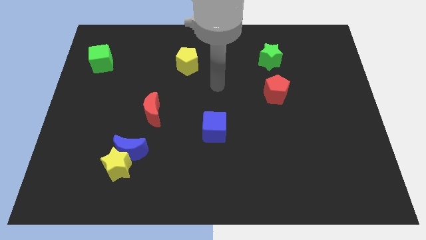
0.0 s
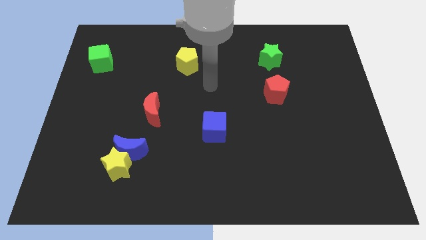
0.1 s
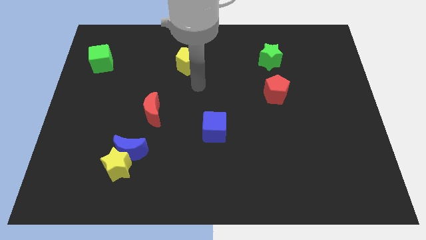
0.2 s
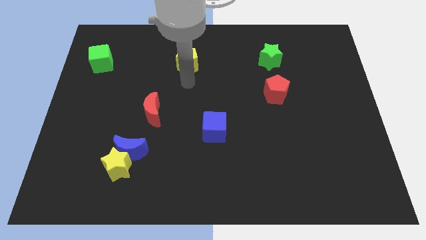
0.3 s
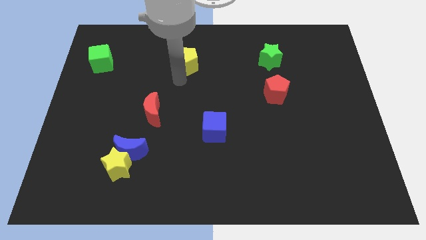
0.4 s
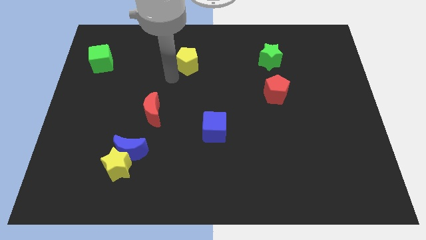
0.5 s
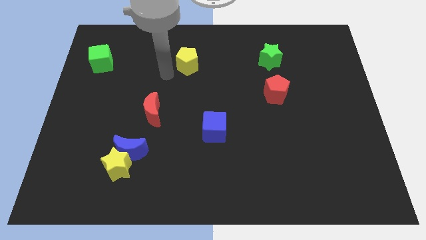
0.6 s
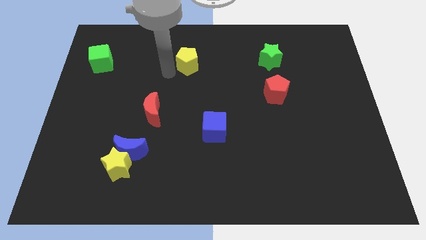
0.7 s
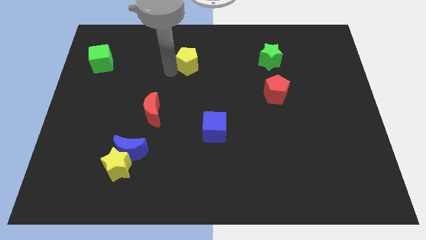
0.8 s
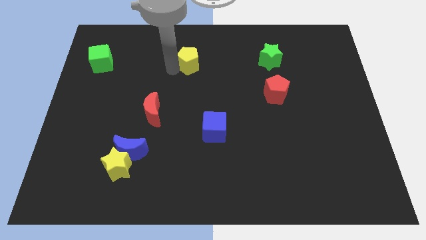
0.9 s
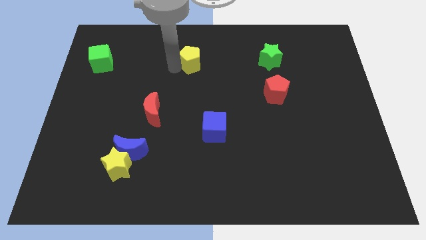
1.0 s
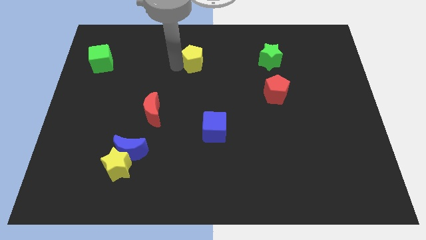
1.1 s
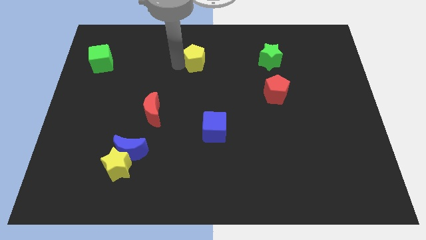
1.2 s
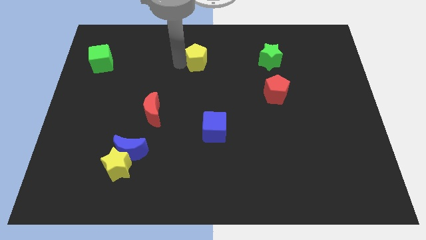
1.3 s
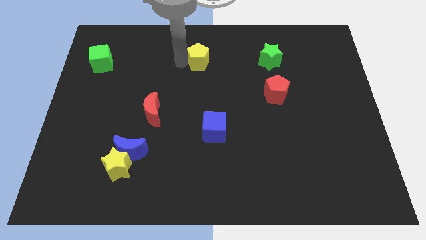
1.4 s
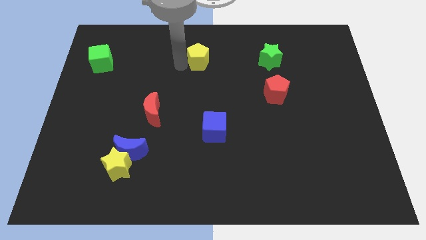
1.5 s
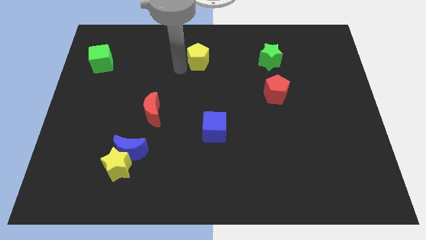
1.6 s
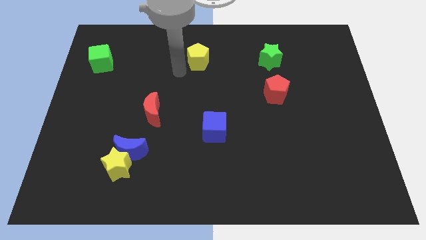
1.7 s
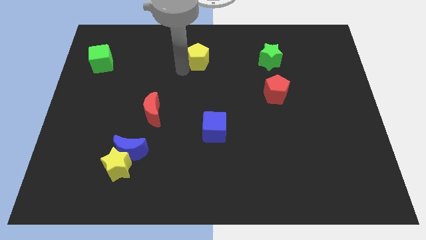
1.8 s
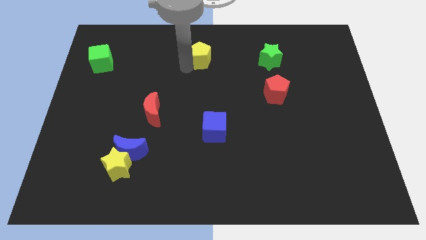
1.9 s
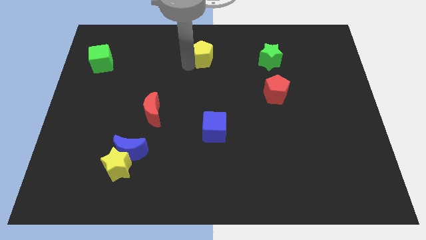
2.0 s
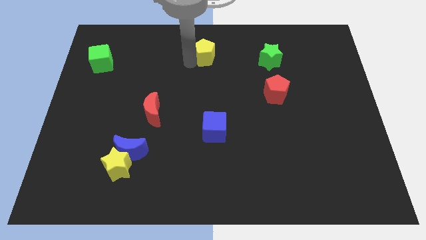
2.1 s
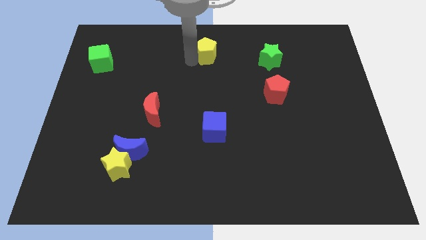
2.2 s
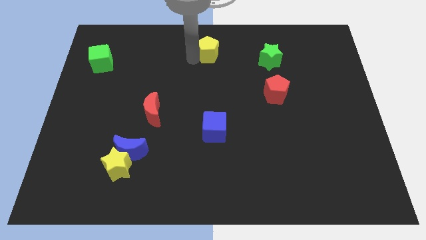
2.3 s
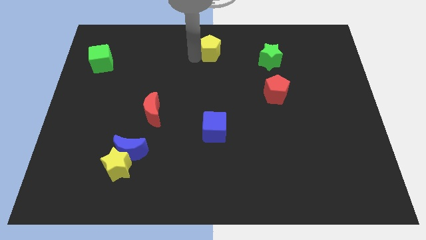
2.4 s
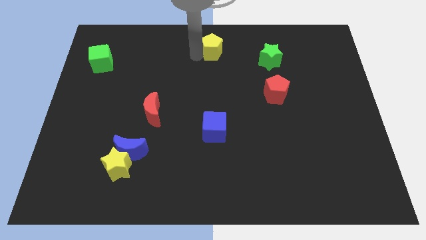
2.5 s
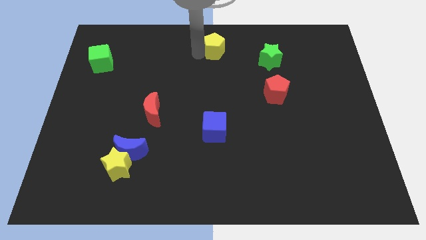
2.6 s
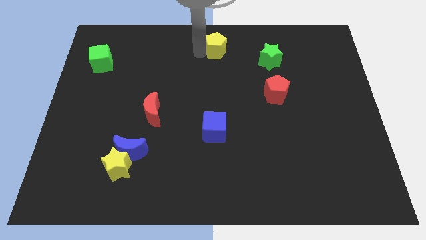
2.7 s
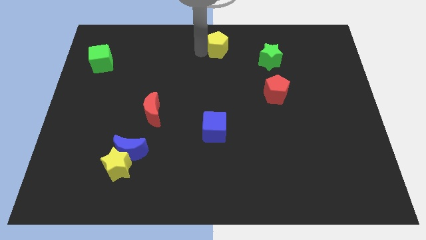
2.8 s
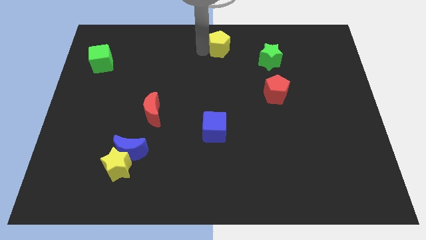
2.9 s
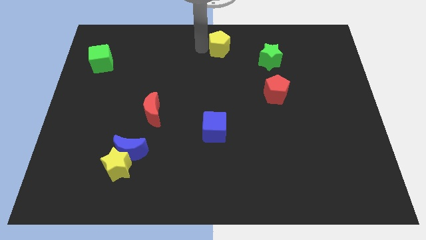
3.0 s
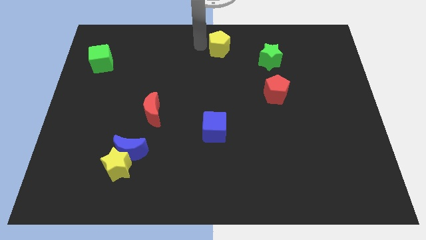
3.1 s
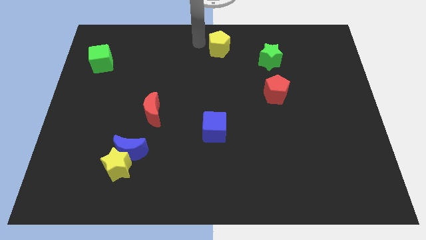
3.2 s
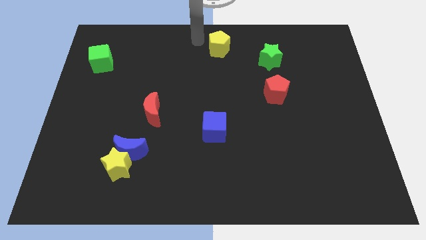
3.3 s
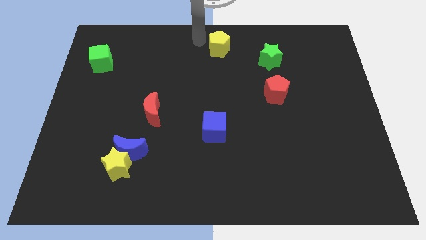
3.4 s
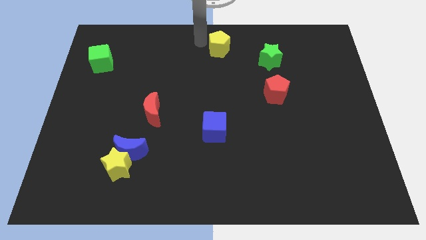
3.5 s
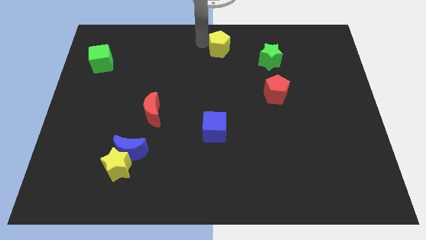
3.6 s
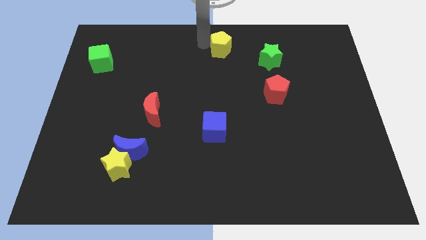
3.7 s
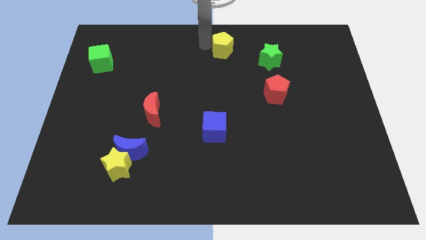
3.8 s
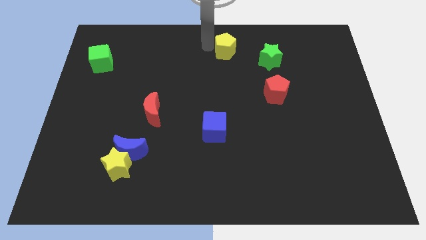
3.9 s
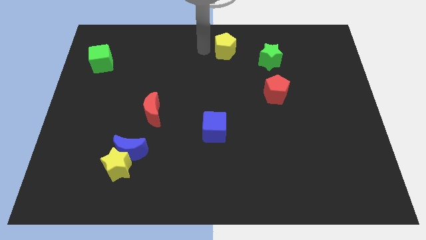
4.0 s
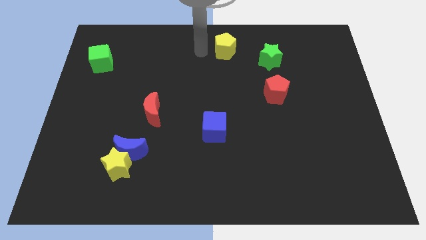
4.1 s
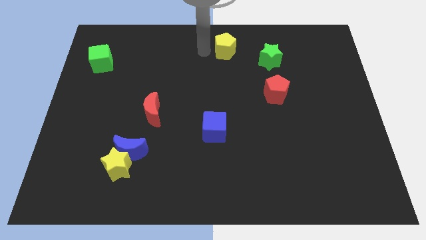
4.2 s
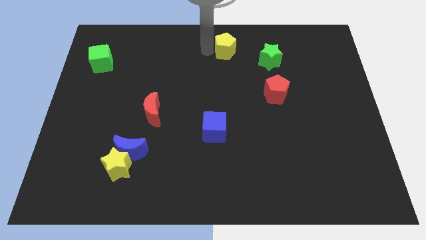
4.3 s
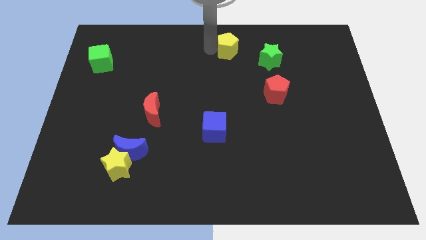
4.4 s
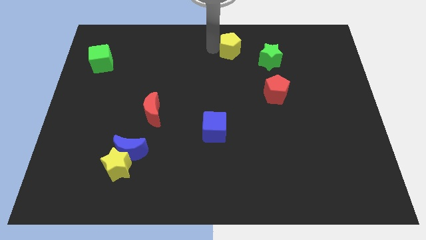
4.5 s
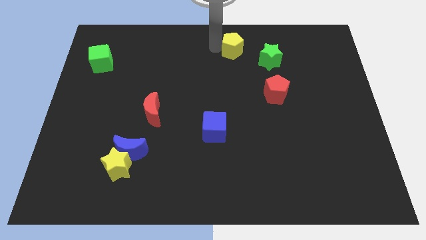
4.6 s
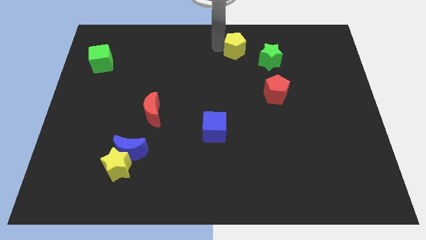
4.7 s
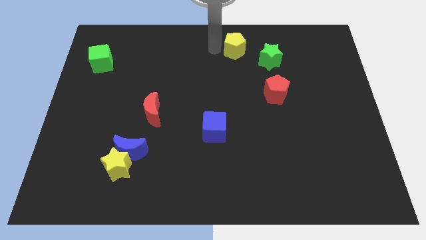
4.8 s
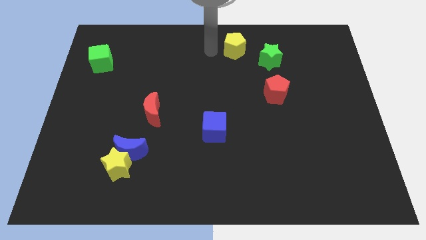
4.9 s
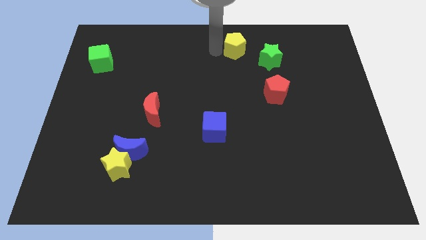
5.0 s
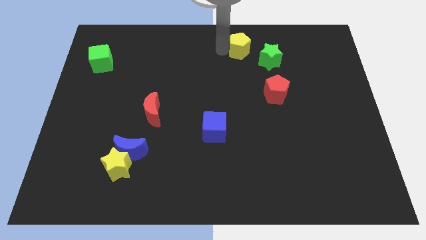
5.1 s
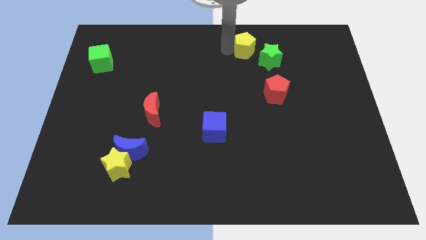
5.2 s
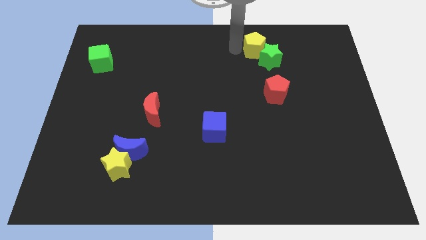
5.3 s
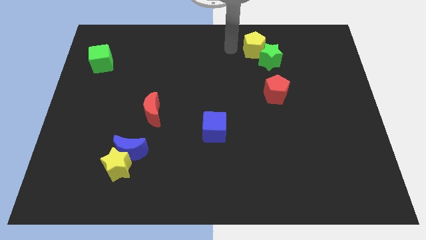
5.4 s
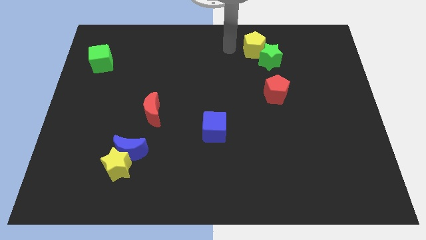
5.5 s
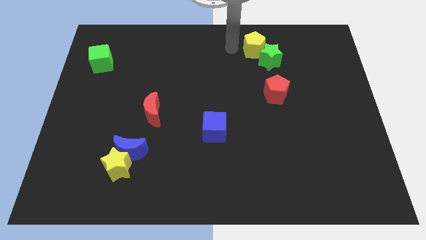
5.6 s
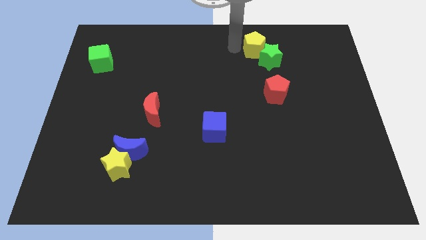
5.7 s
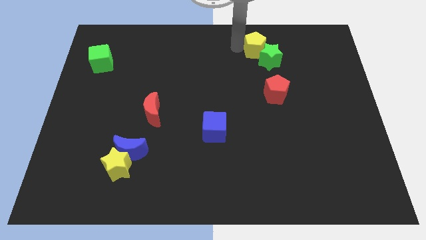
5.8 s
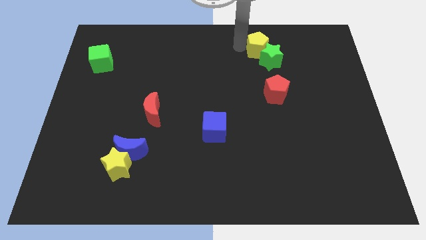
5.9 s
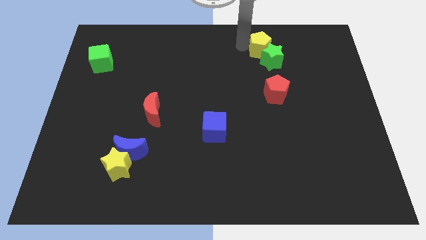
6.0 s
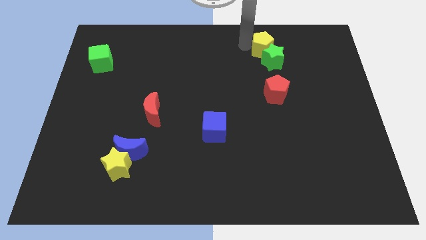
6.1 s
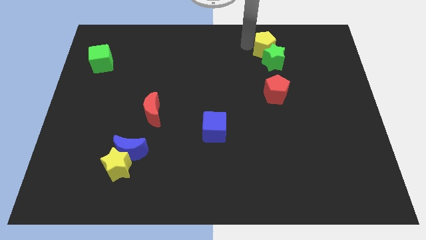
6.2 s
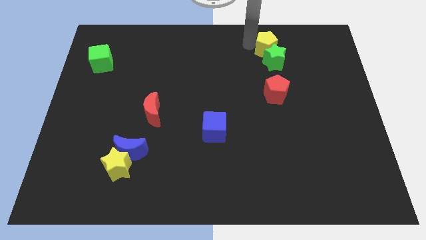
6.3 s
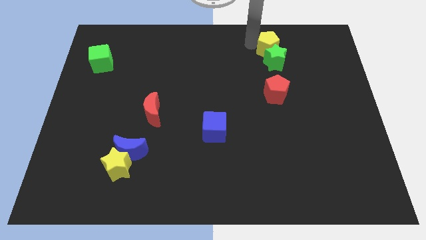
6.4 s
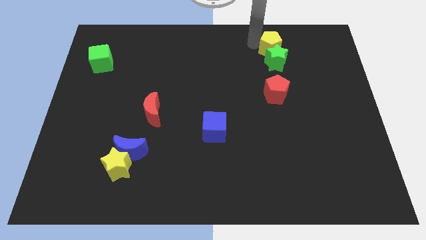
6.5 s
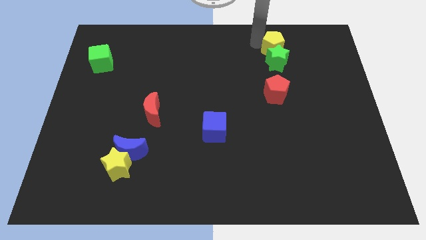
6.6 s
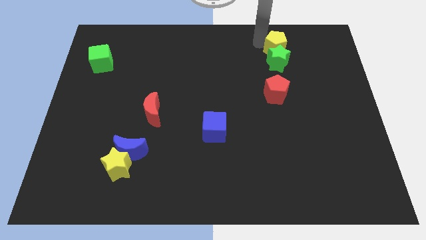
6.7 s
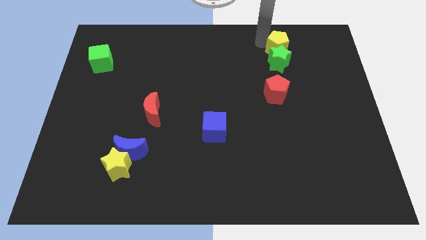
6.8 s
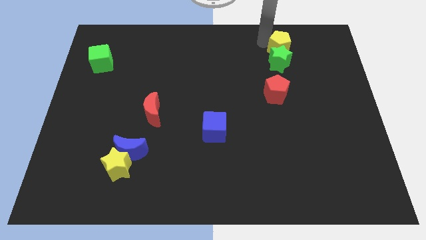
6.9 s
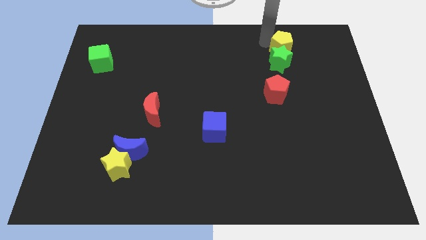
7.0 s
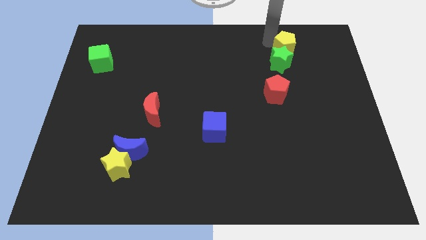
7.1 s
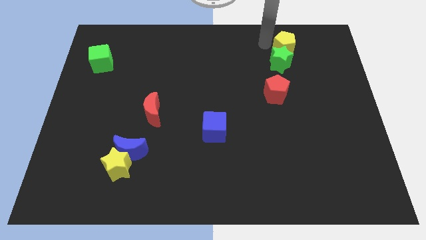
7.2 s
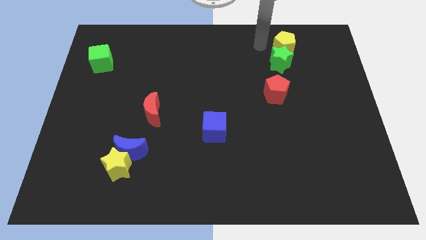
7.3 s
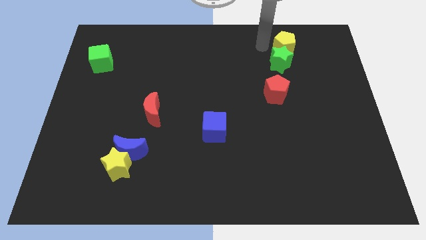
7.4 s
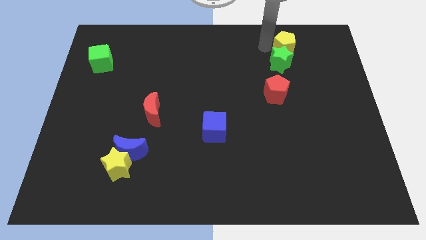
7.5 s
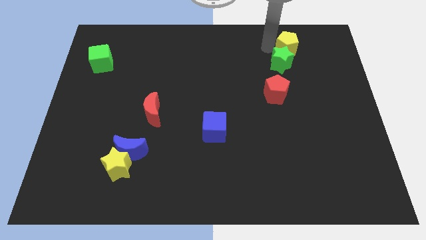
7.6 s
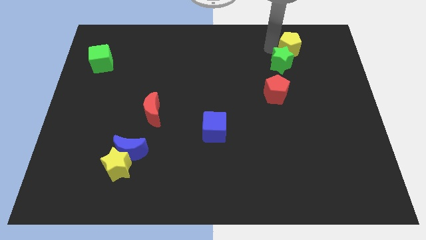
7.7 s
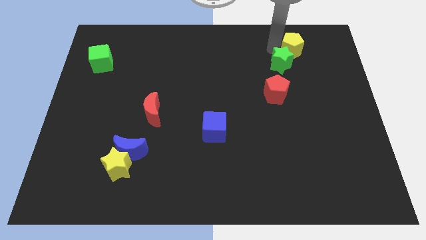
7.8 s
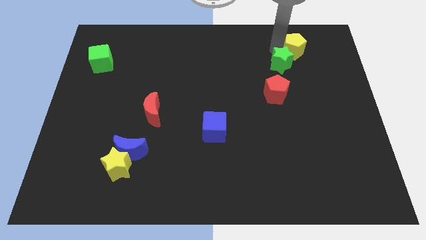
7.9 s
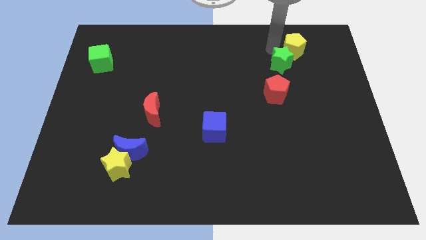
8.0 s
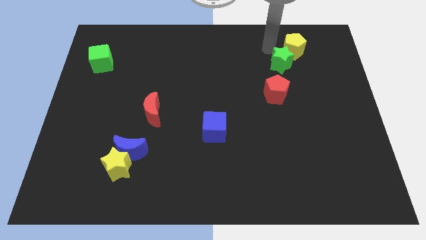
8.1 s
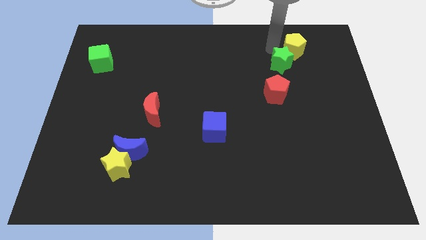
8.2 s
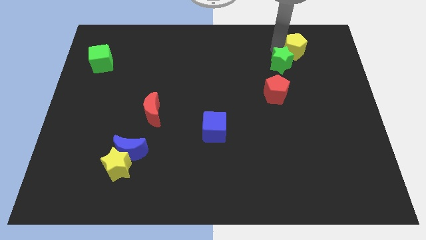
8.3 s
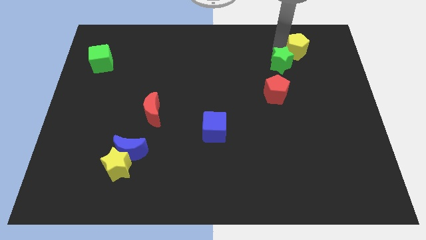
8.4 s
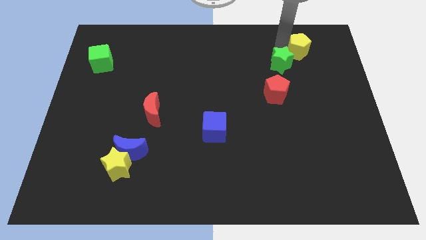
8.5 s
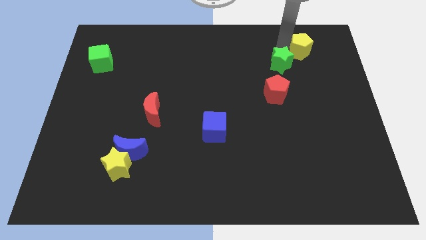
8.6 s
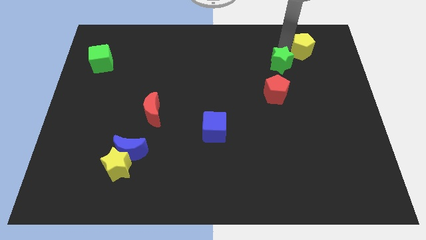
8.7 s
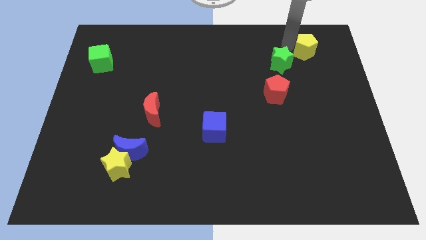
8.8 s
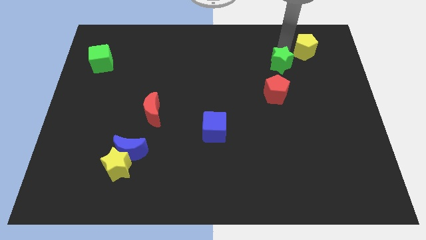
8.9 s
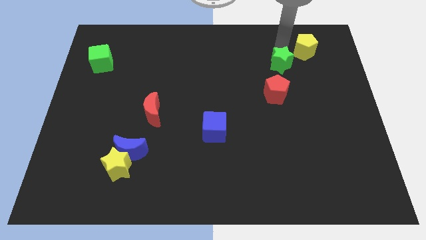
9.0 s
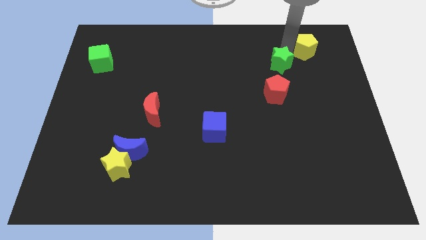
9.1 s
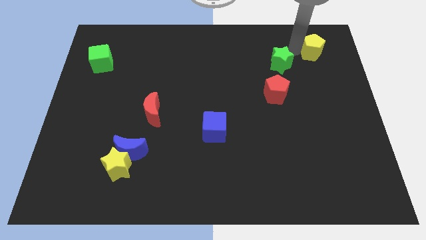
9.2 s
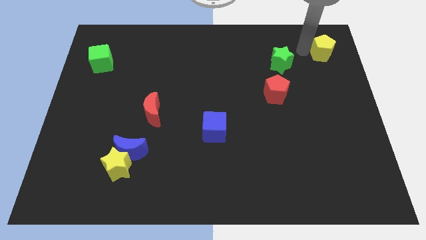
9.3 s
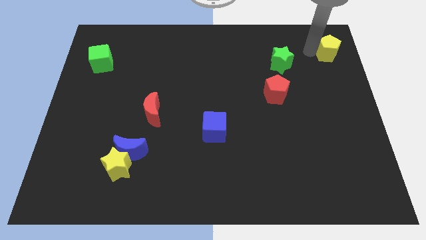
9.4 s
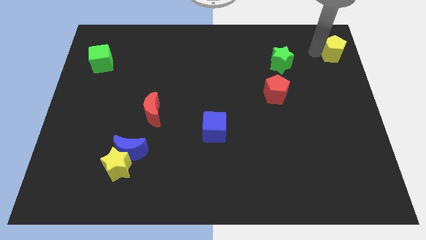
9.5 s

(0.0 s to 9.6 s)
move the yellow pentagon to the top right
